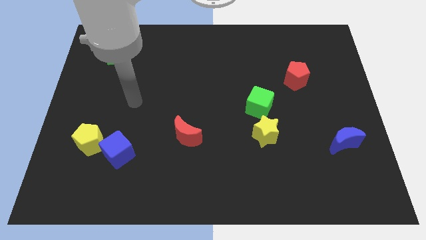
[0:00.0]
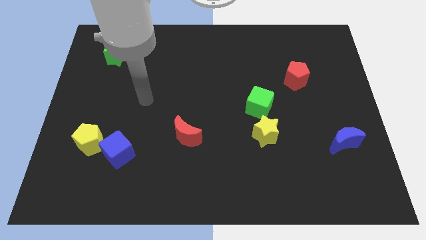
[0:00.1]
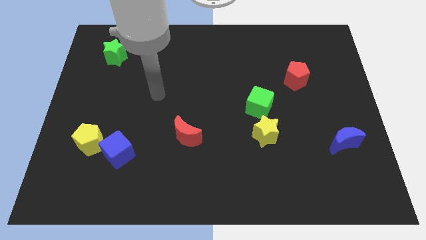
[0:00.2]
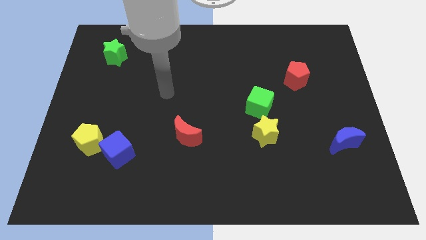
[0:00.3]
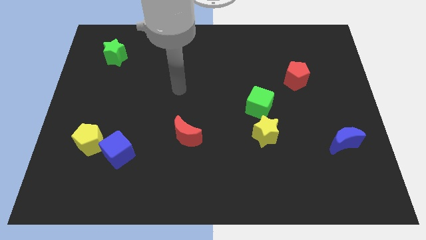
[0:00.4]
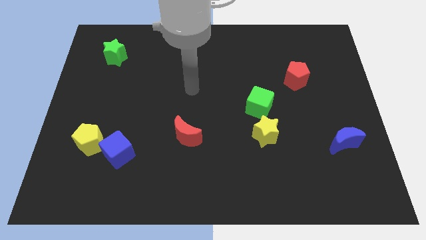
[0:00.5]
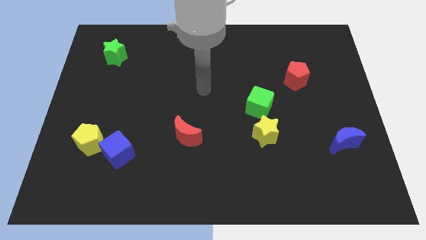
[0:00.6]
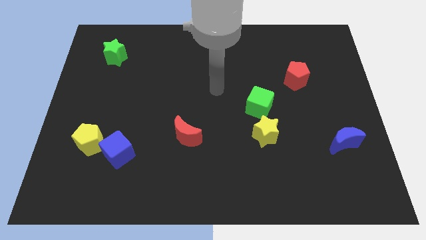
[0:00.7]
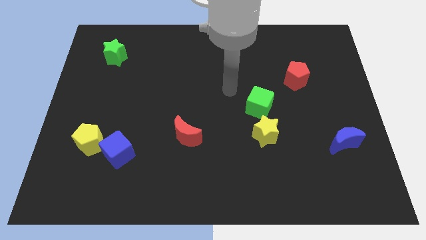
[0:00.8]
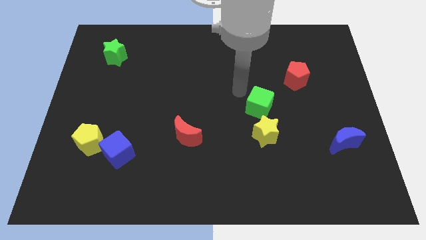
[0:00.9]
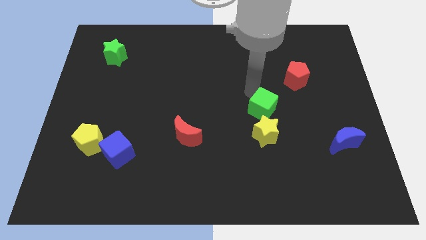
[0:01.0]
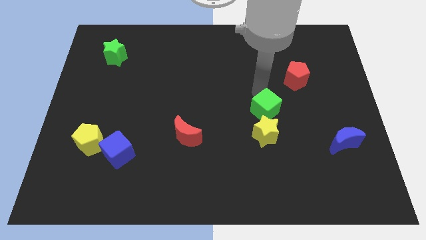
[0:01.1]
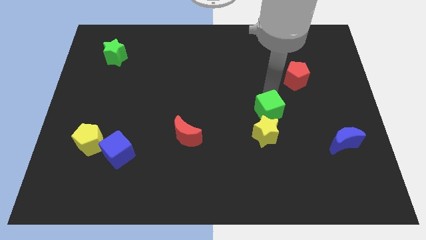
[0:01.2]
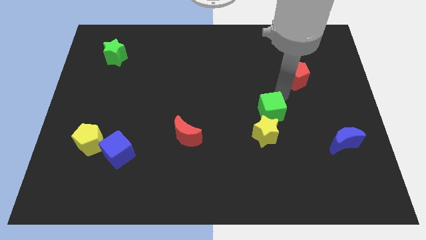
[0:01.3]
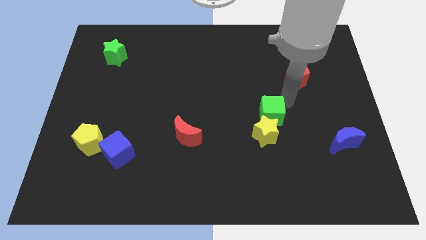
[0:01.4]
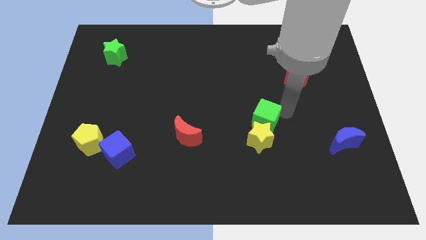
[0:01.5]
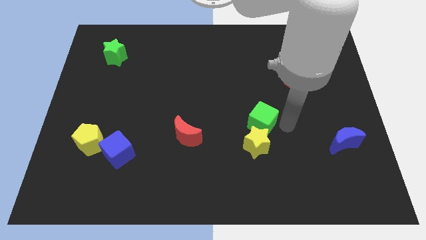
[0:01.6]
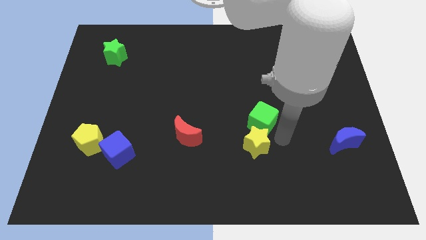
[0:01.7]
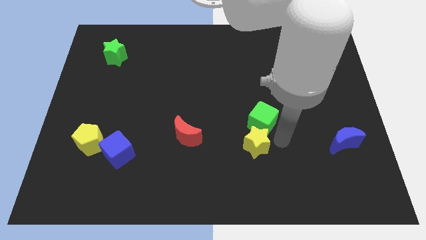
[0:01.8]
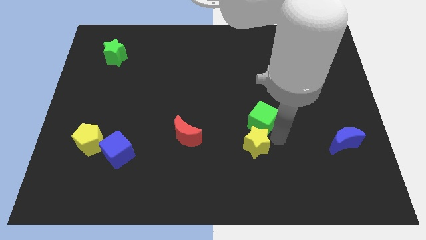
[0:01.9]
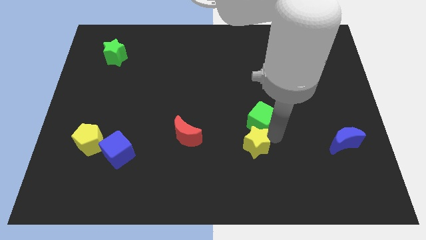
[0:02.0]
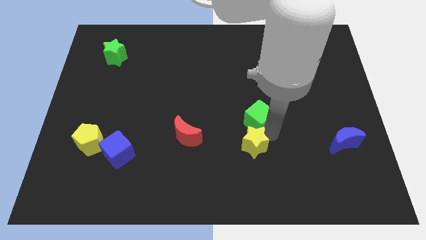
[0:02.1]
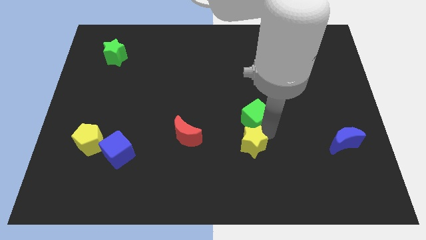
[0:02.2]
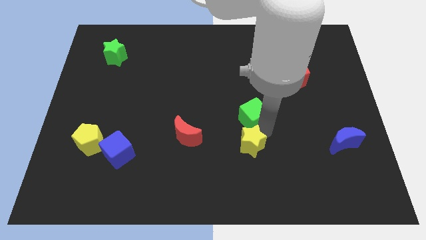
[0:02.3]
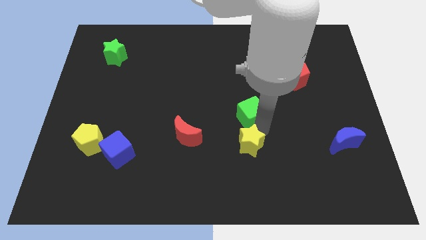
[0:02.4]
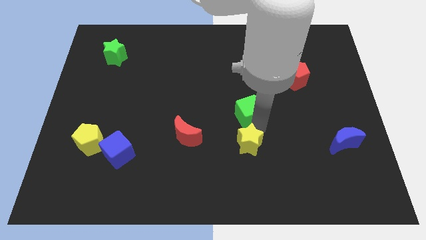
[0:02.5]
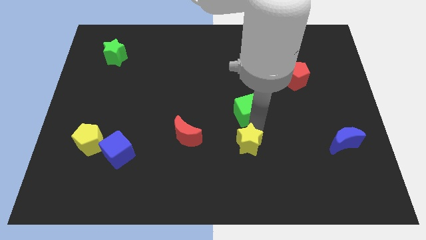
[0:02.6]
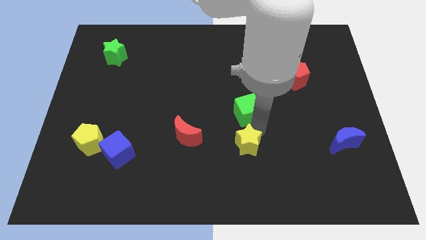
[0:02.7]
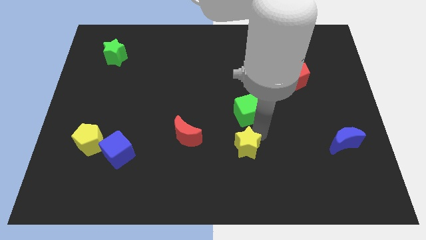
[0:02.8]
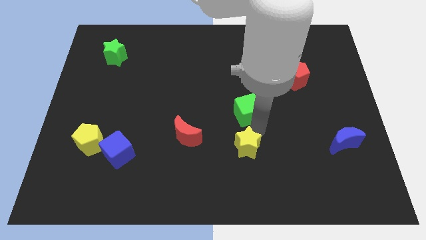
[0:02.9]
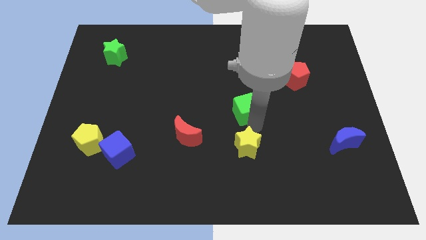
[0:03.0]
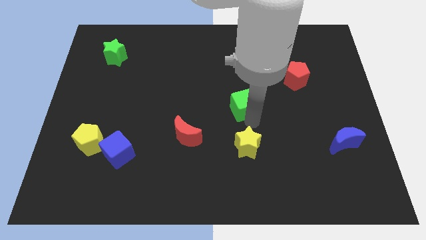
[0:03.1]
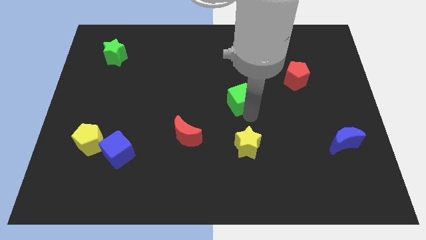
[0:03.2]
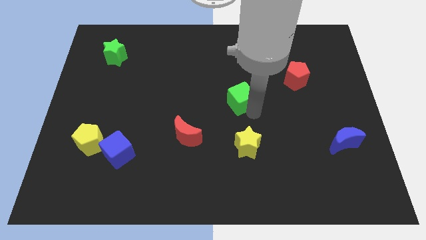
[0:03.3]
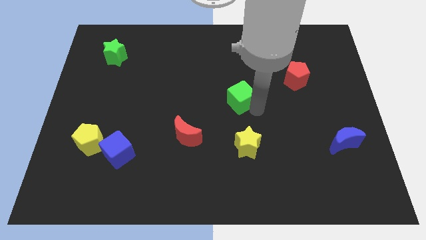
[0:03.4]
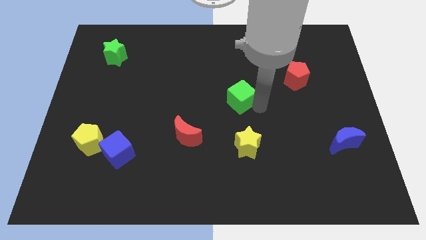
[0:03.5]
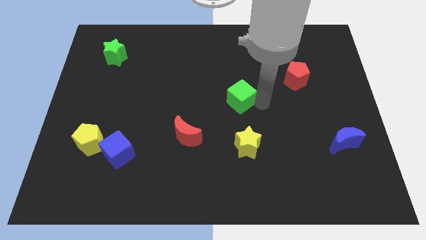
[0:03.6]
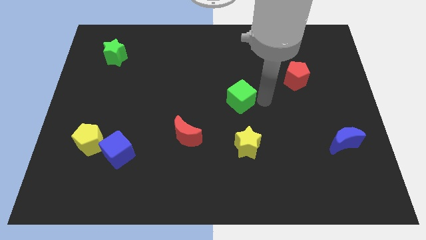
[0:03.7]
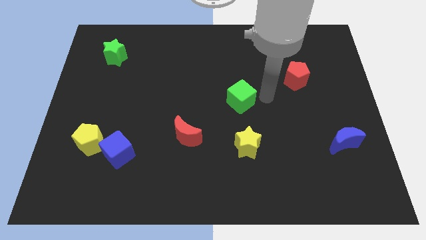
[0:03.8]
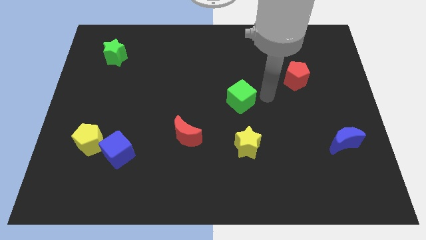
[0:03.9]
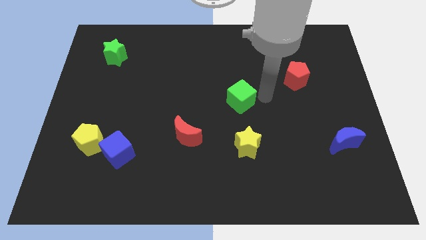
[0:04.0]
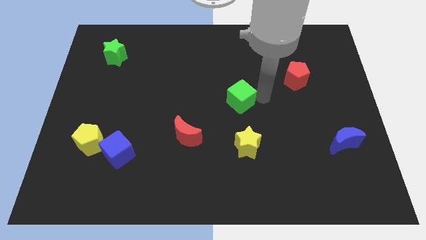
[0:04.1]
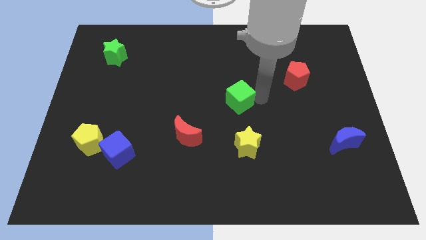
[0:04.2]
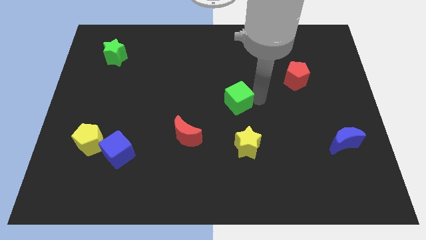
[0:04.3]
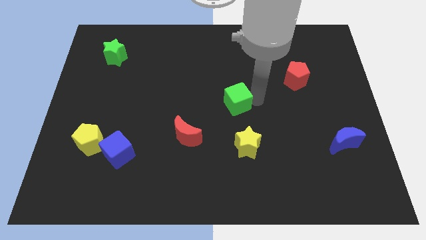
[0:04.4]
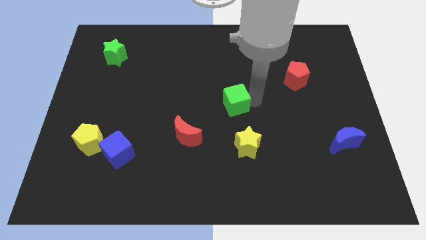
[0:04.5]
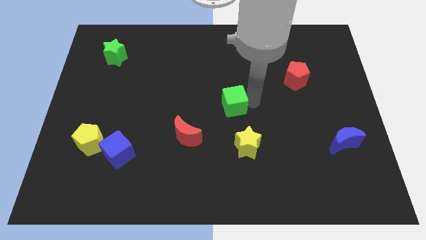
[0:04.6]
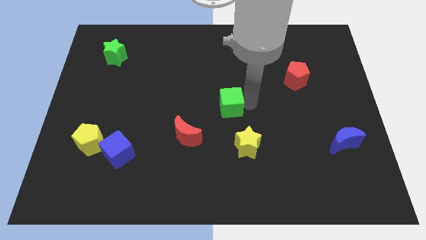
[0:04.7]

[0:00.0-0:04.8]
slightly slide the green cube to the left

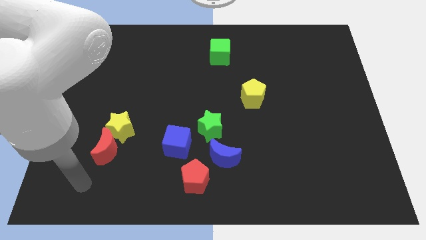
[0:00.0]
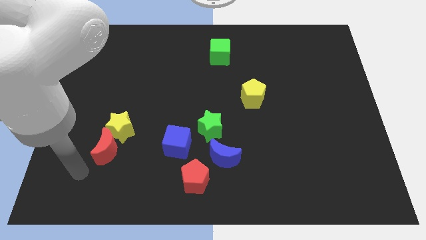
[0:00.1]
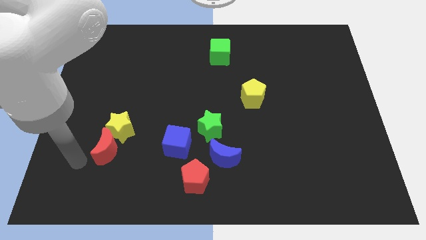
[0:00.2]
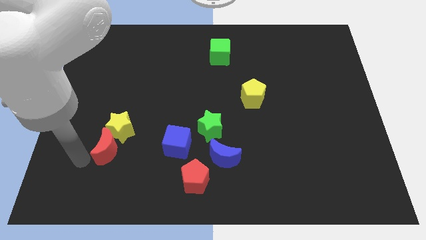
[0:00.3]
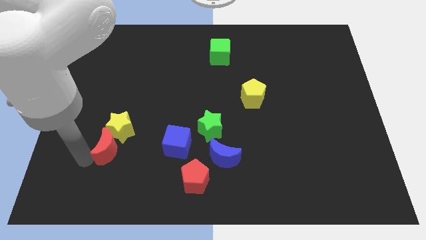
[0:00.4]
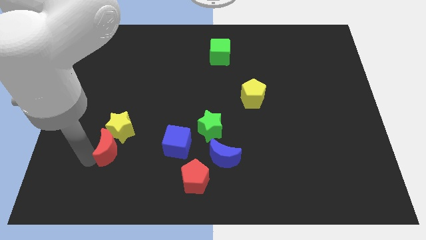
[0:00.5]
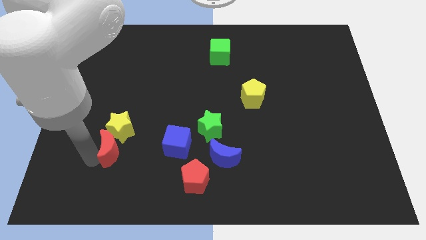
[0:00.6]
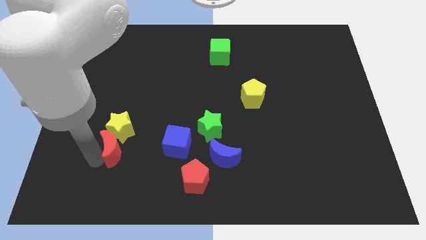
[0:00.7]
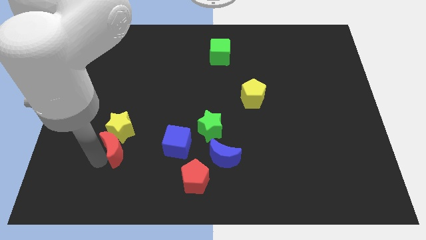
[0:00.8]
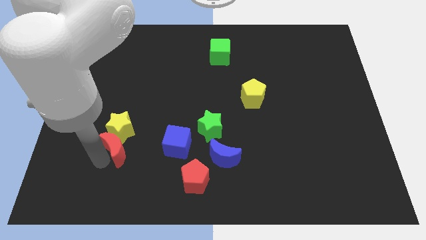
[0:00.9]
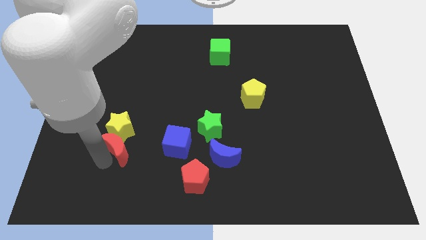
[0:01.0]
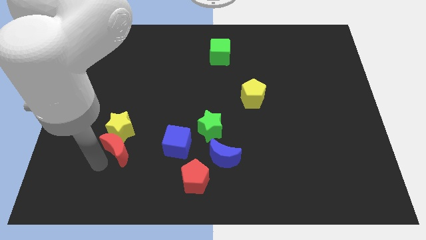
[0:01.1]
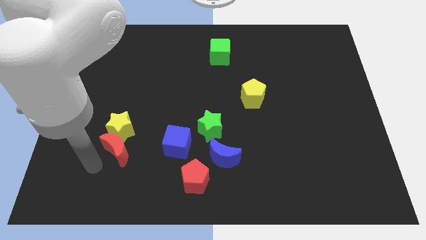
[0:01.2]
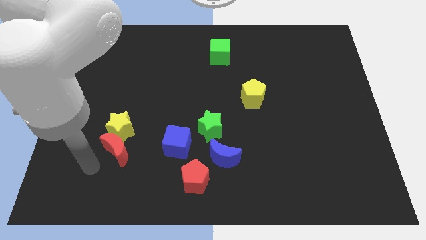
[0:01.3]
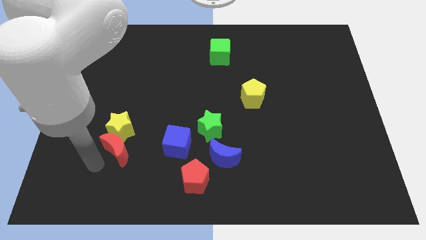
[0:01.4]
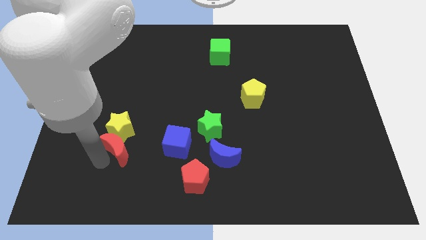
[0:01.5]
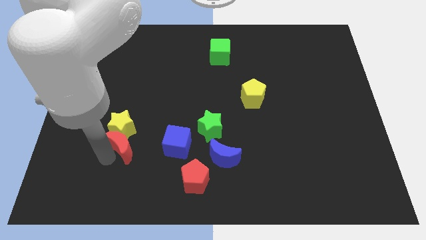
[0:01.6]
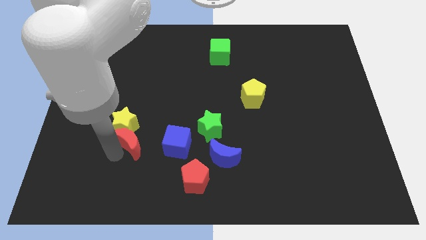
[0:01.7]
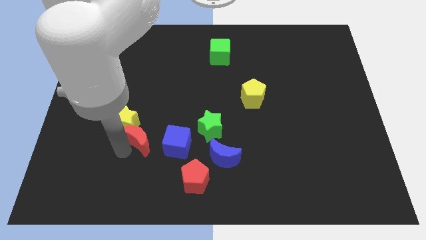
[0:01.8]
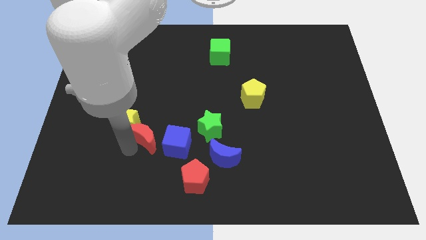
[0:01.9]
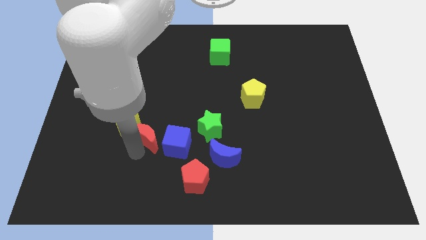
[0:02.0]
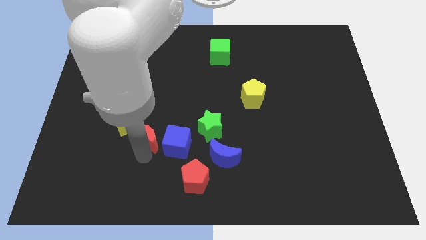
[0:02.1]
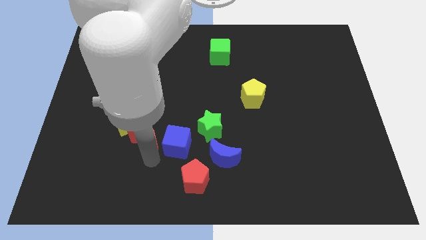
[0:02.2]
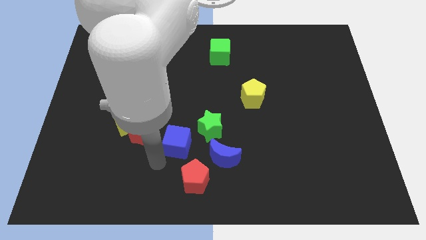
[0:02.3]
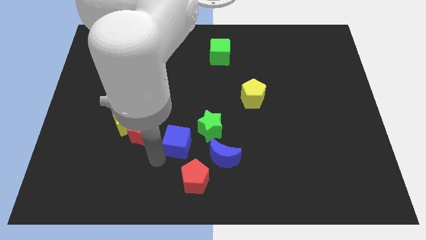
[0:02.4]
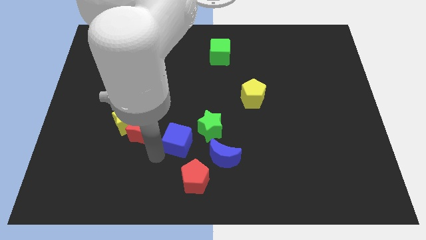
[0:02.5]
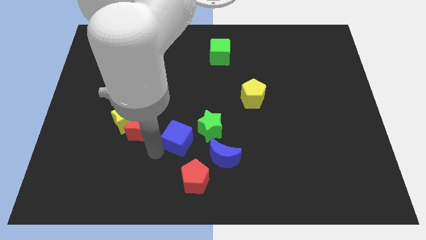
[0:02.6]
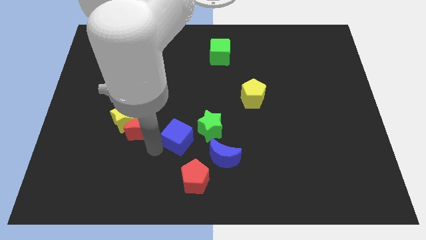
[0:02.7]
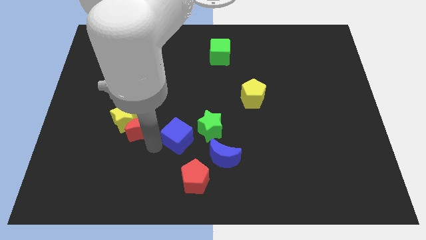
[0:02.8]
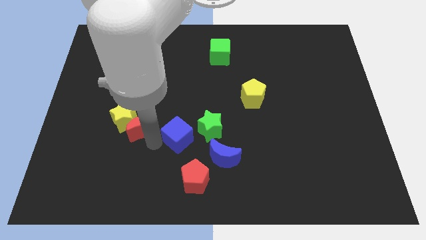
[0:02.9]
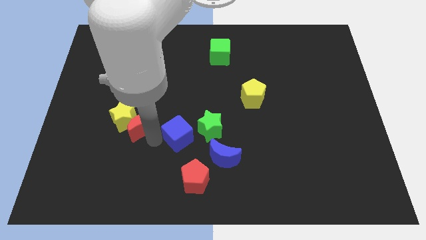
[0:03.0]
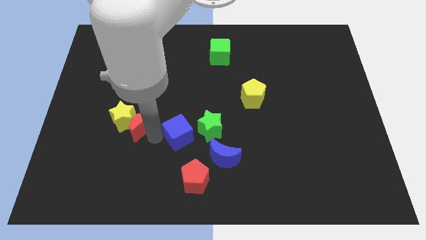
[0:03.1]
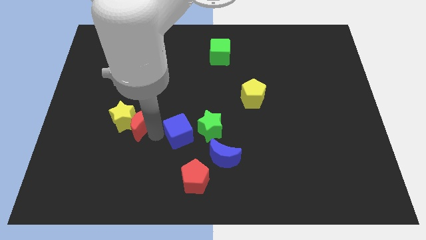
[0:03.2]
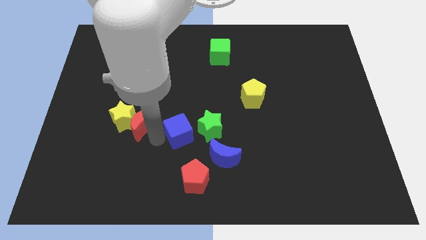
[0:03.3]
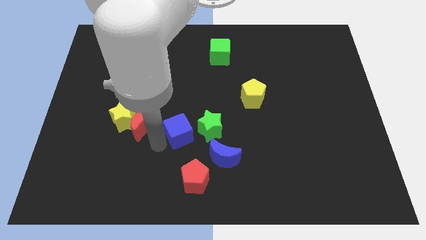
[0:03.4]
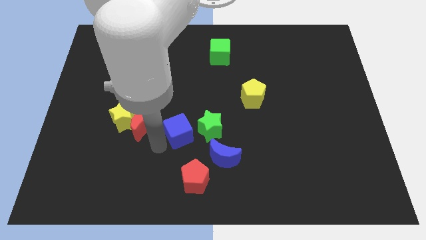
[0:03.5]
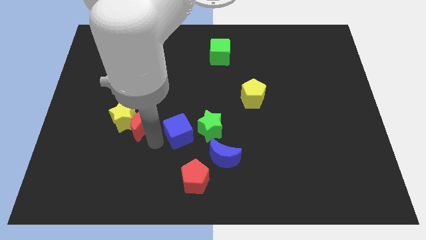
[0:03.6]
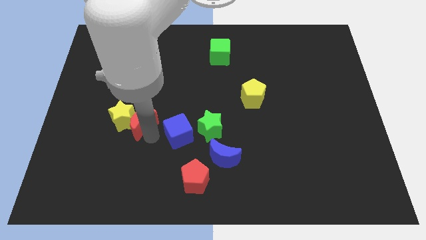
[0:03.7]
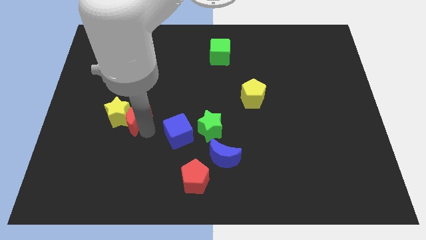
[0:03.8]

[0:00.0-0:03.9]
slightly push the red moon up
